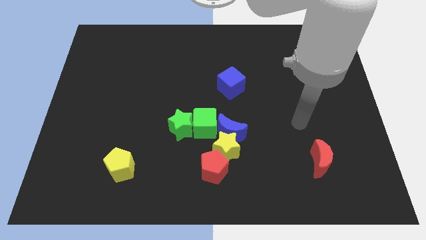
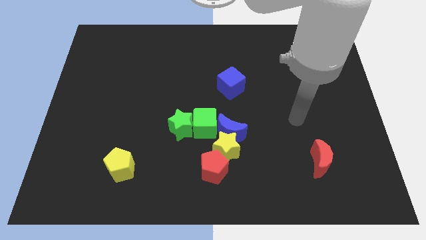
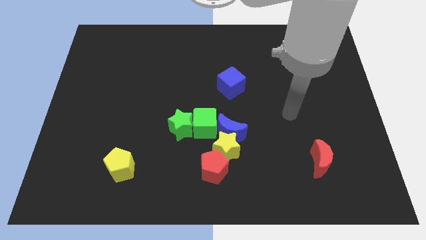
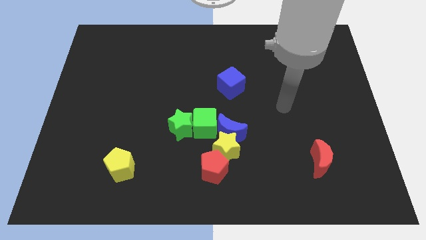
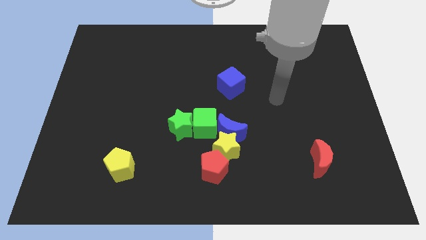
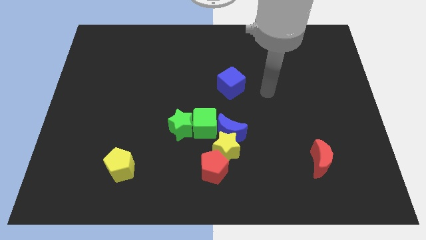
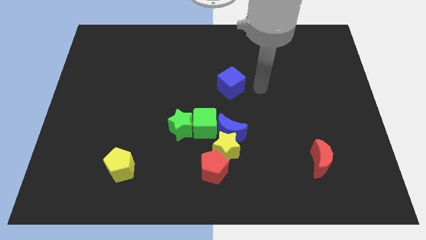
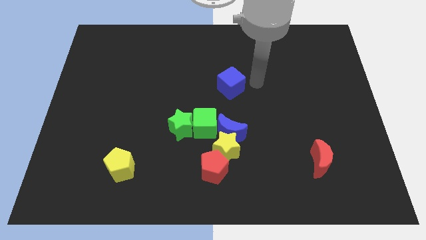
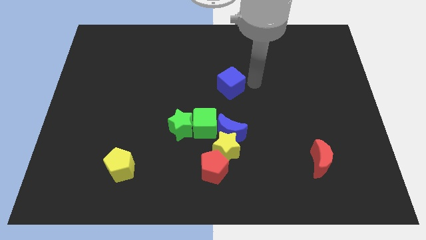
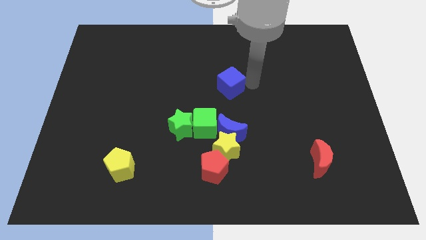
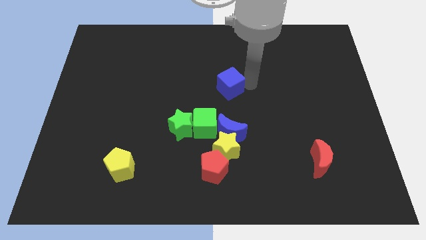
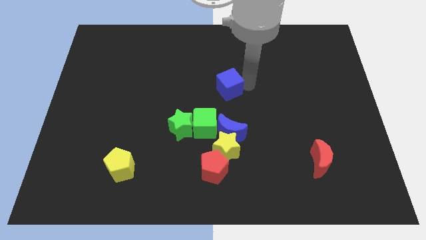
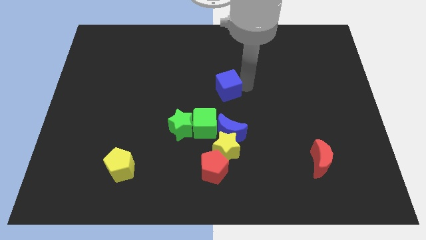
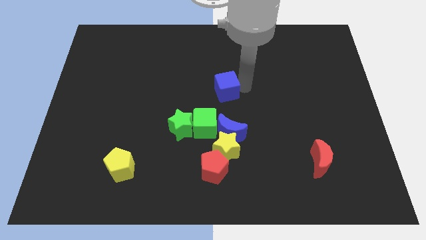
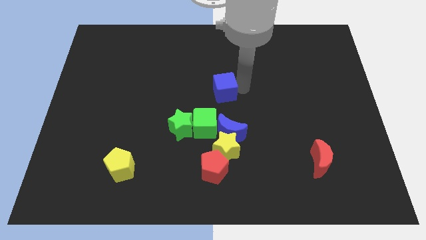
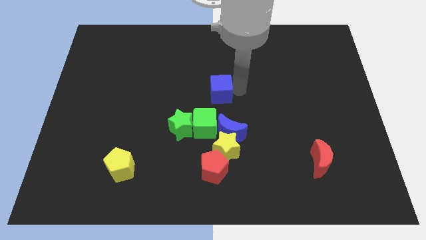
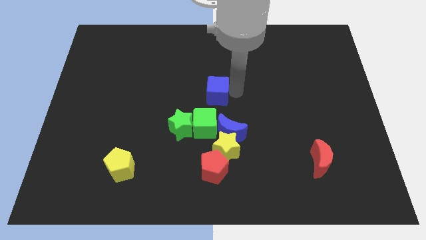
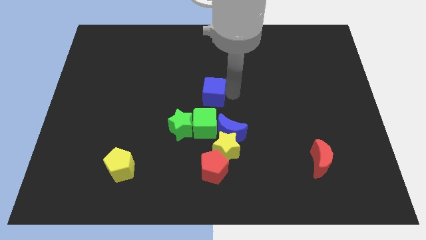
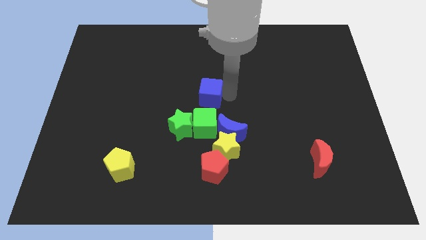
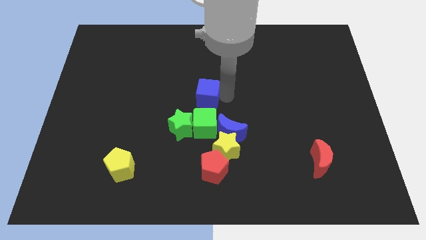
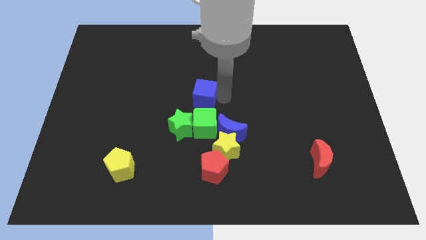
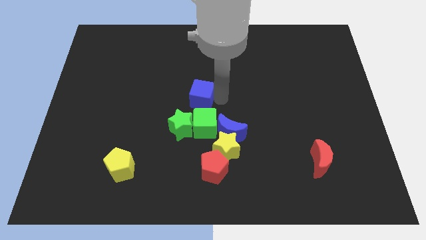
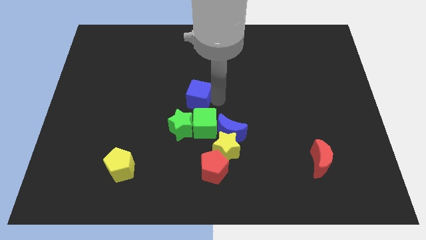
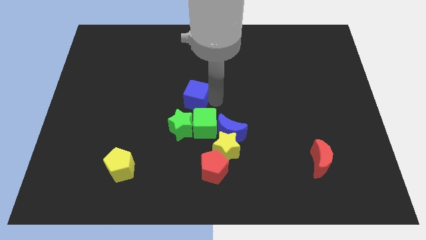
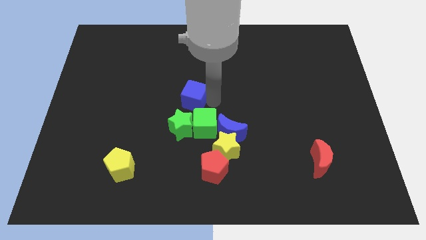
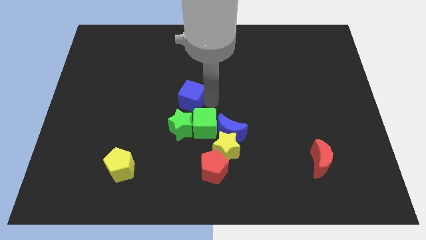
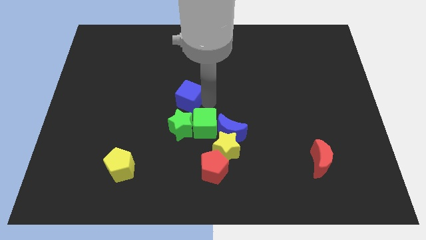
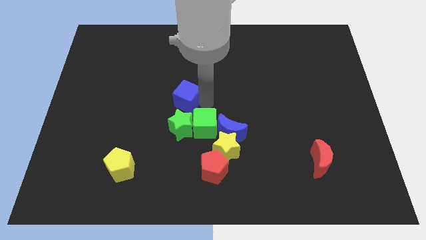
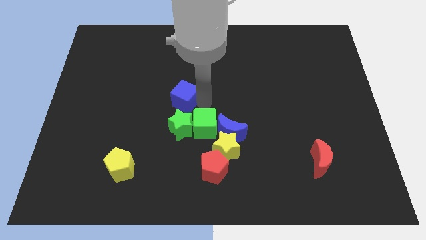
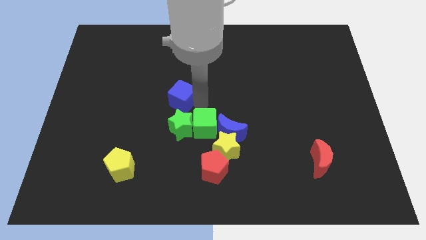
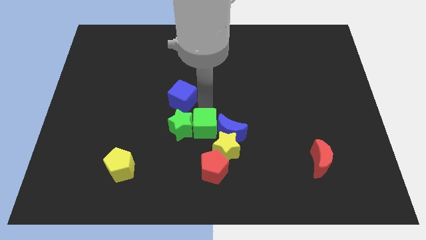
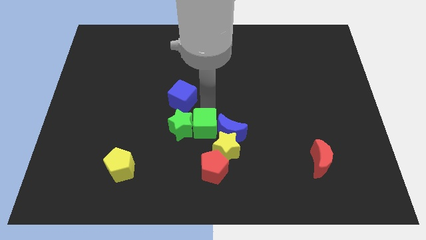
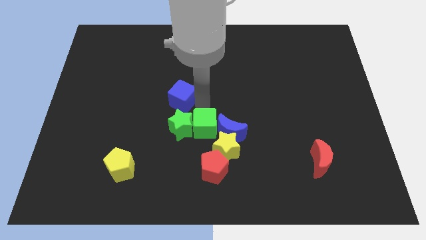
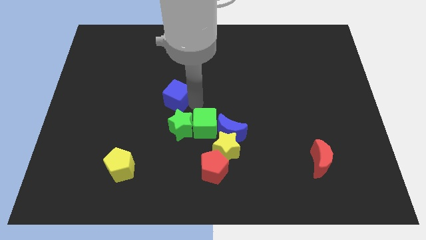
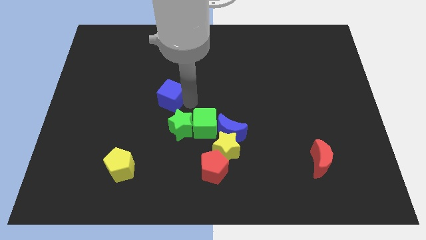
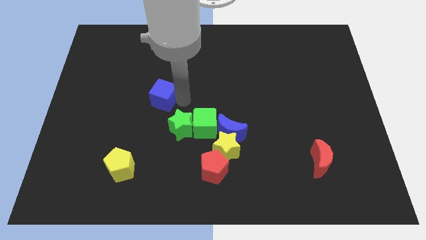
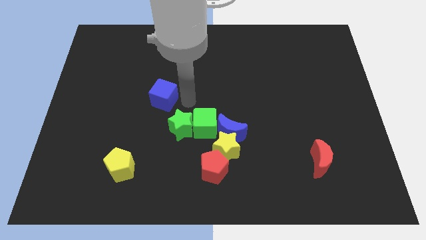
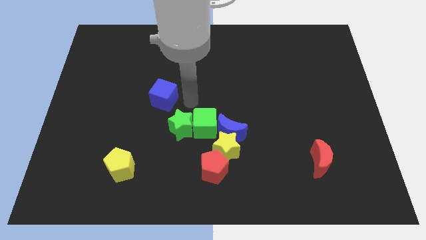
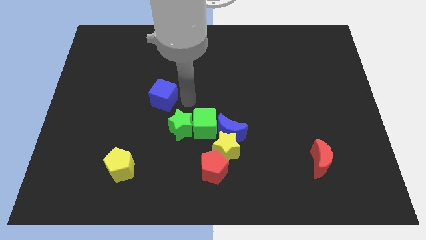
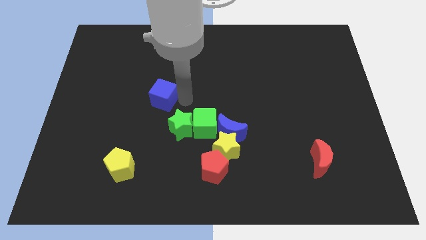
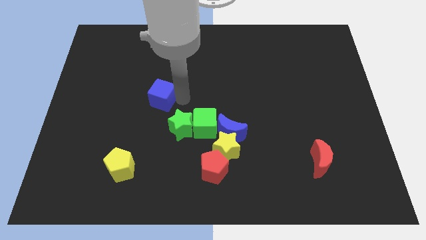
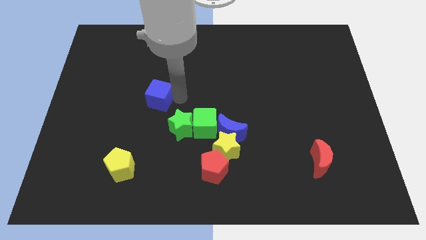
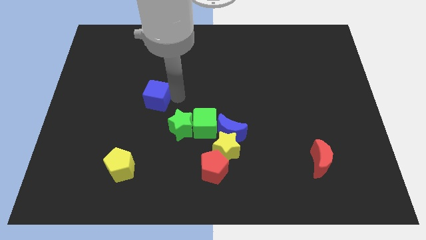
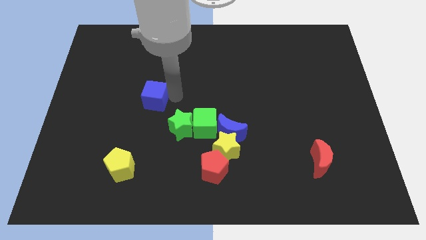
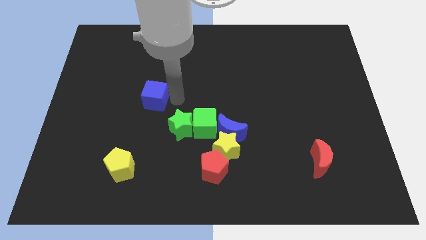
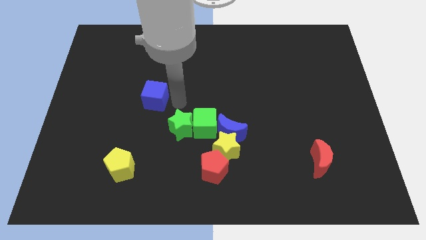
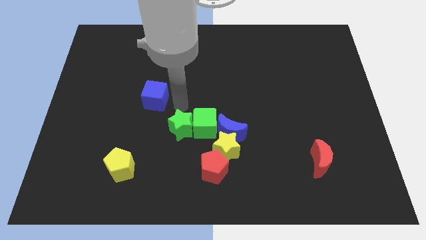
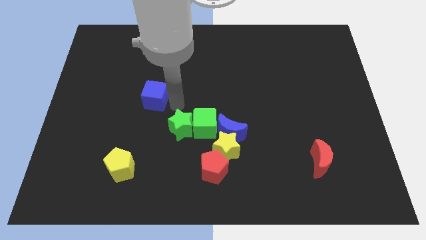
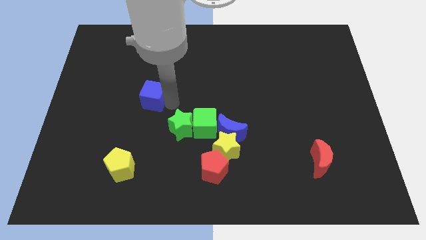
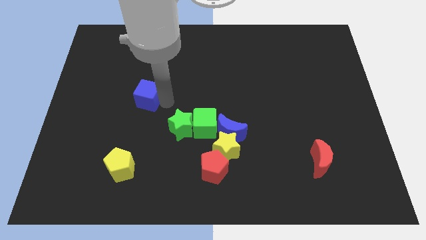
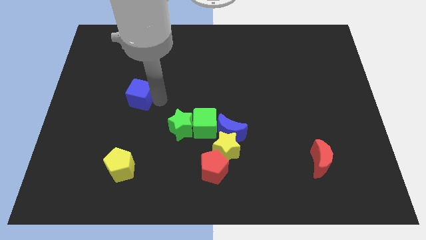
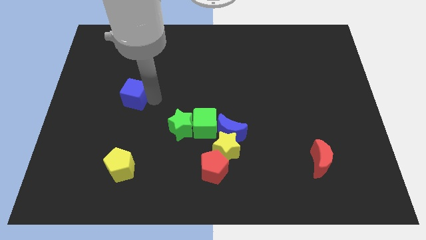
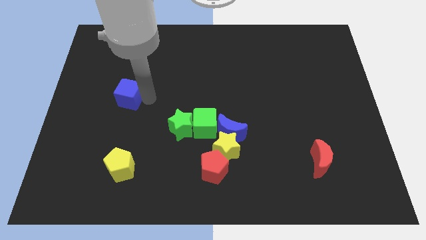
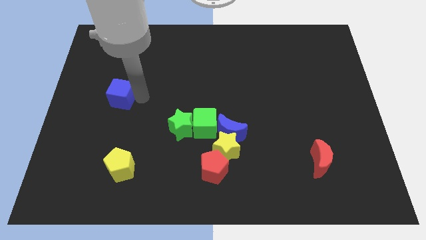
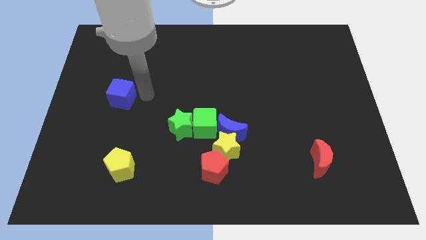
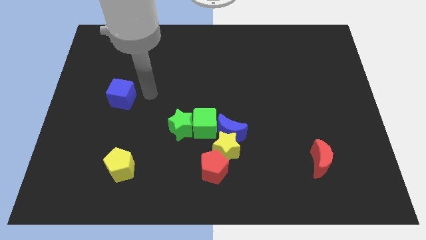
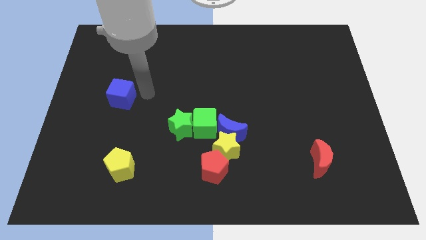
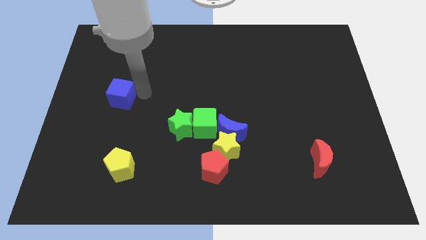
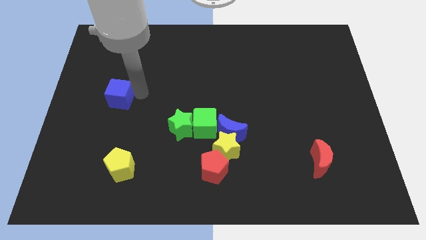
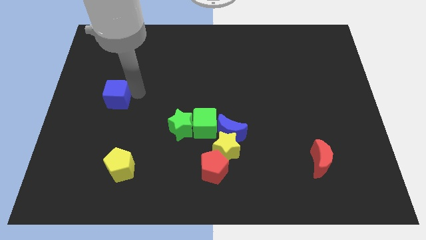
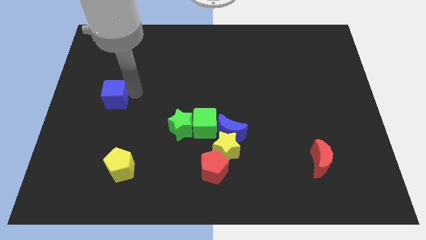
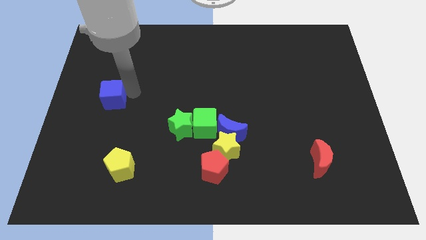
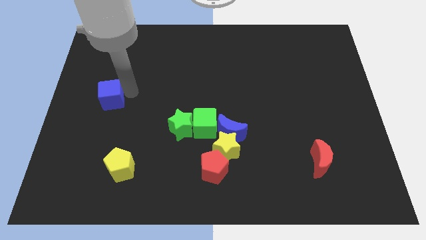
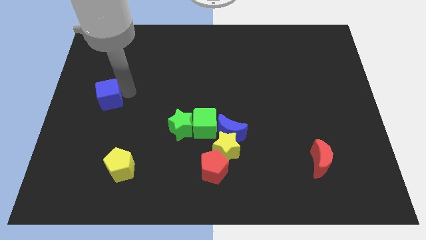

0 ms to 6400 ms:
move the blue cube to the center left
